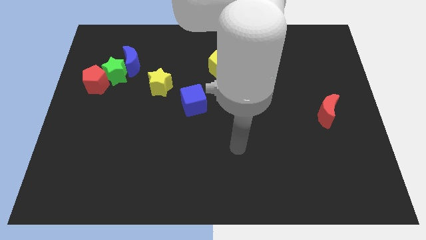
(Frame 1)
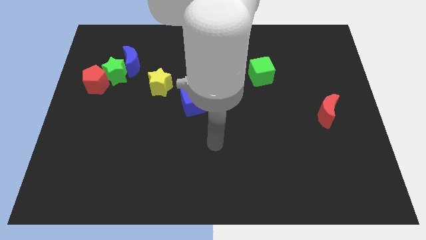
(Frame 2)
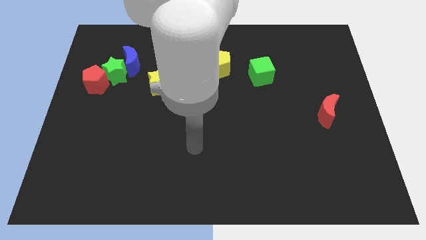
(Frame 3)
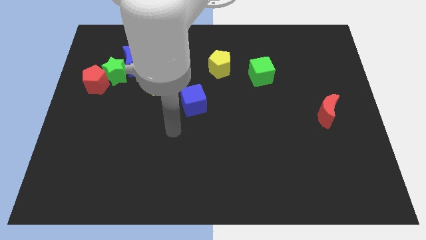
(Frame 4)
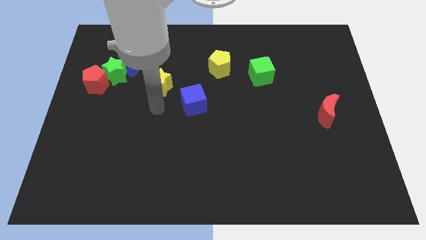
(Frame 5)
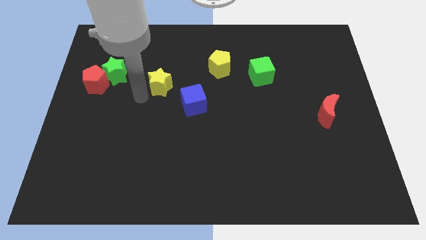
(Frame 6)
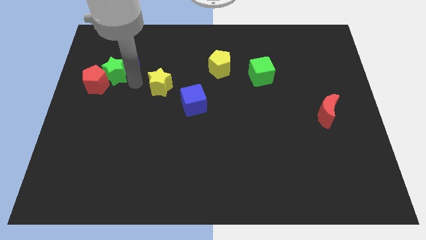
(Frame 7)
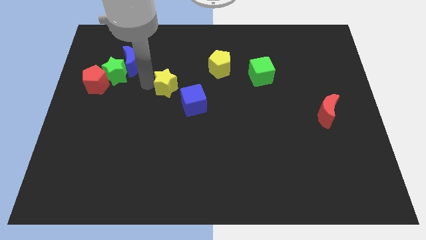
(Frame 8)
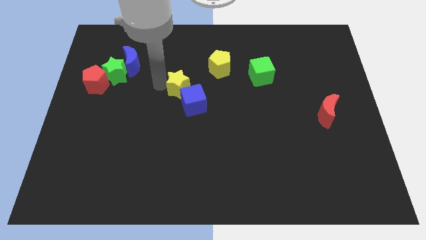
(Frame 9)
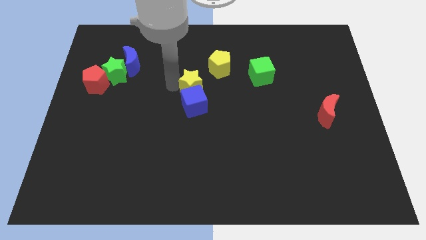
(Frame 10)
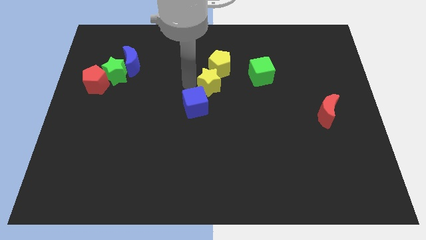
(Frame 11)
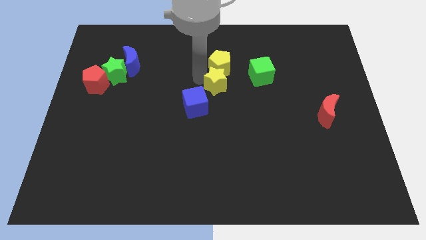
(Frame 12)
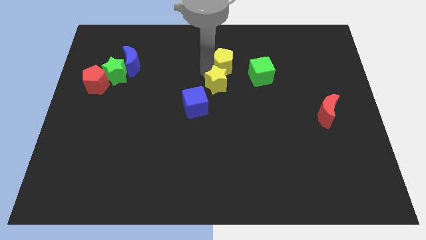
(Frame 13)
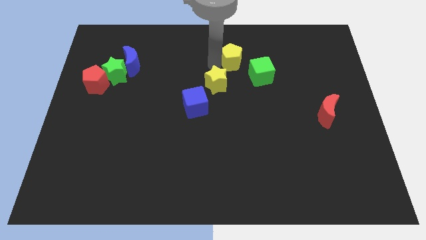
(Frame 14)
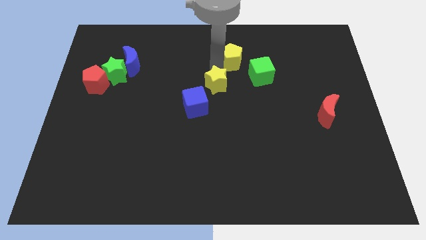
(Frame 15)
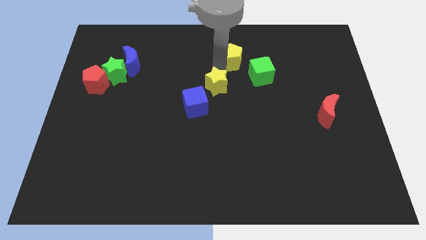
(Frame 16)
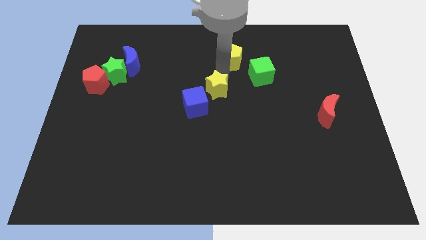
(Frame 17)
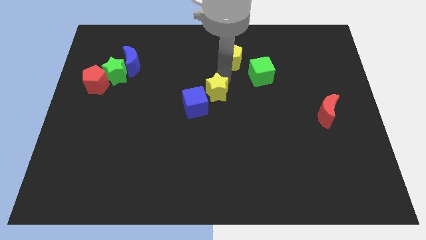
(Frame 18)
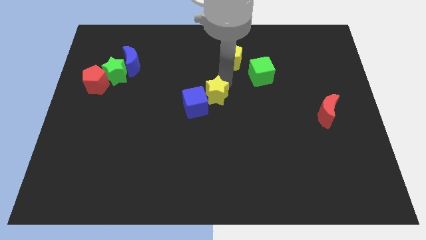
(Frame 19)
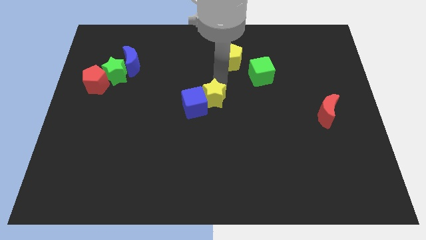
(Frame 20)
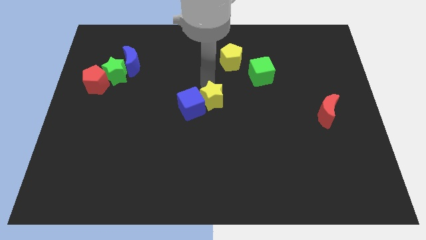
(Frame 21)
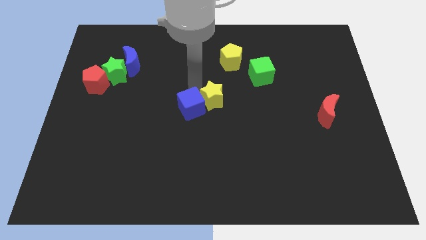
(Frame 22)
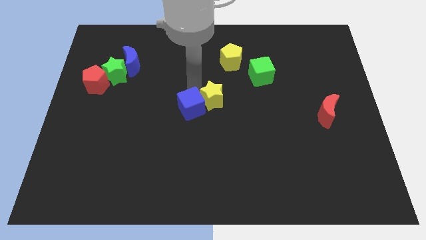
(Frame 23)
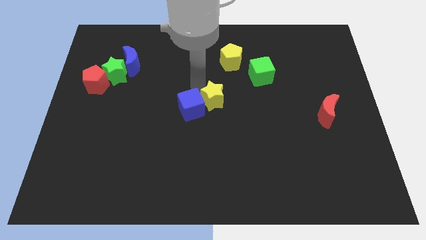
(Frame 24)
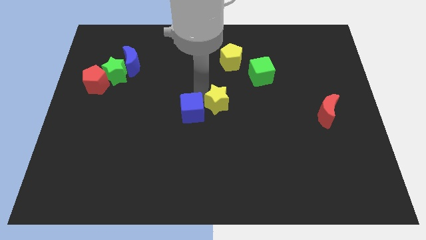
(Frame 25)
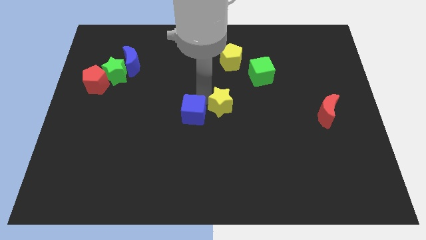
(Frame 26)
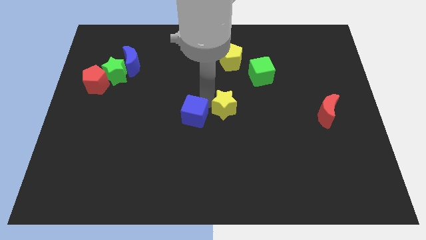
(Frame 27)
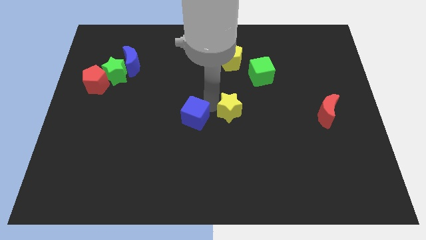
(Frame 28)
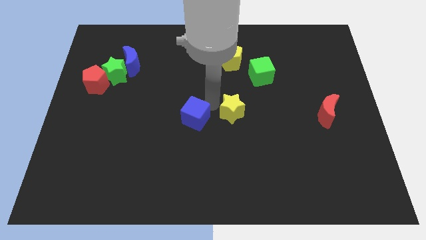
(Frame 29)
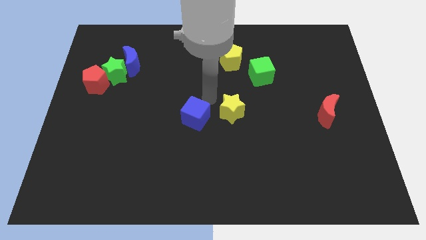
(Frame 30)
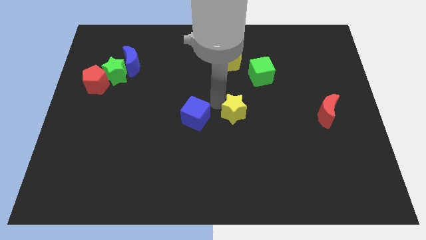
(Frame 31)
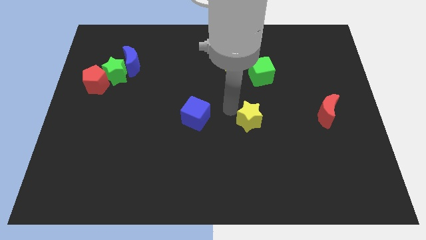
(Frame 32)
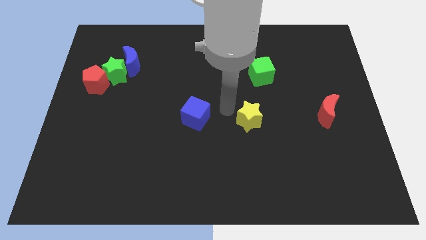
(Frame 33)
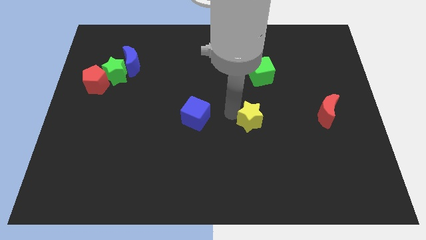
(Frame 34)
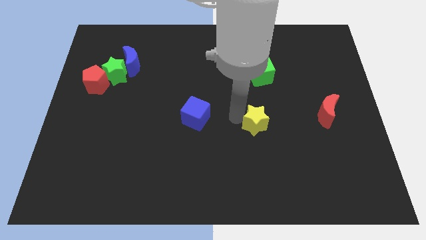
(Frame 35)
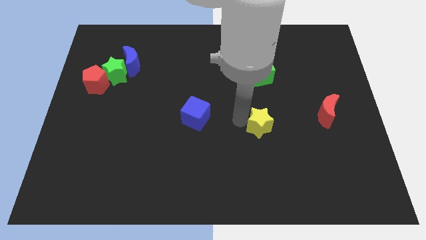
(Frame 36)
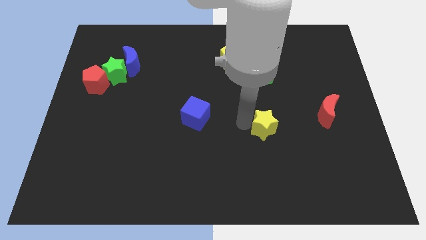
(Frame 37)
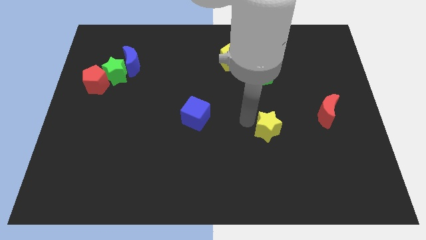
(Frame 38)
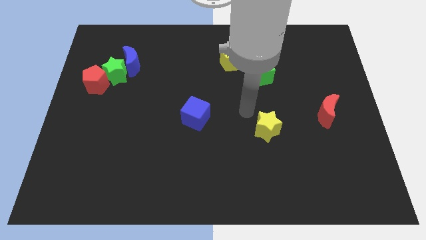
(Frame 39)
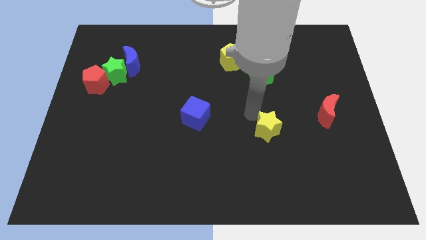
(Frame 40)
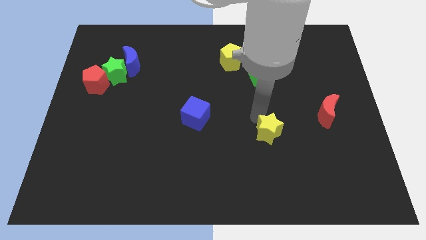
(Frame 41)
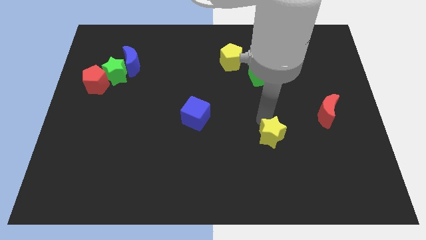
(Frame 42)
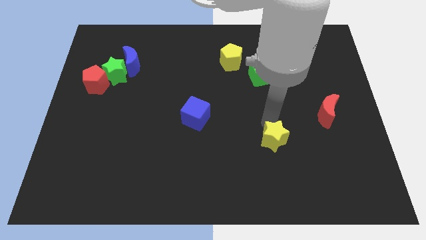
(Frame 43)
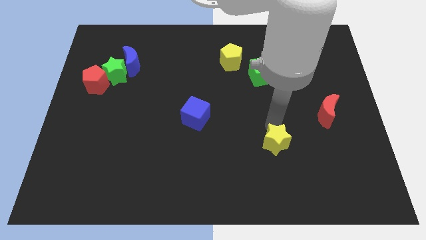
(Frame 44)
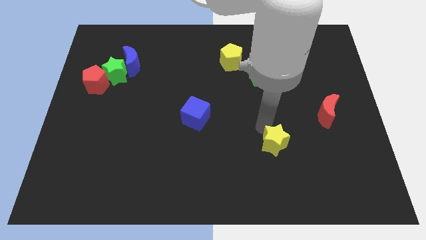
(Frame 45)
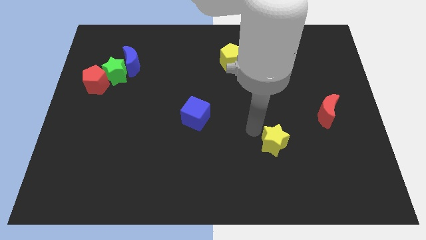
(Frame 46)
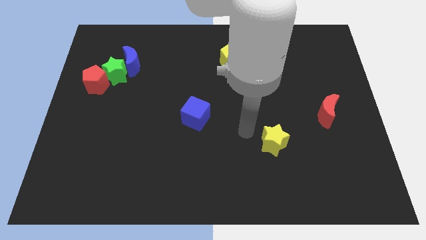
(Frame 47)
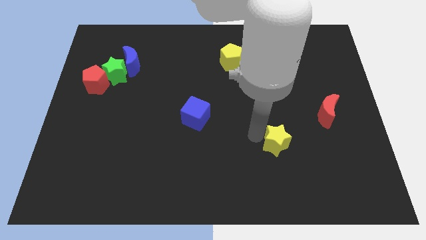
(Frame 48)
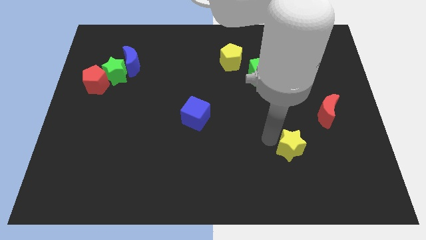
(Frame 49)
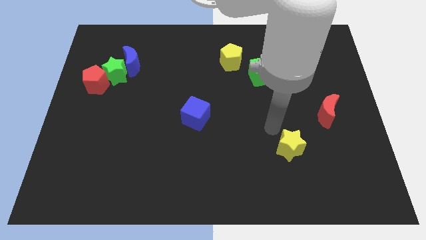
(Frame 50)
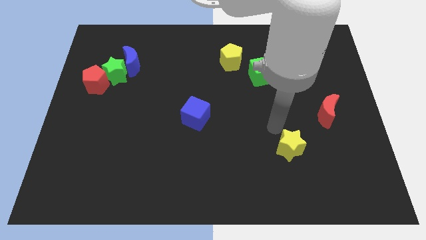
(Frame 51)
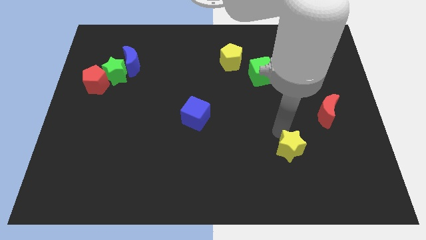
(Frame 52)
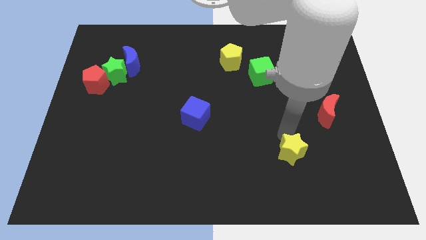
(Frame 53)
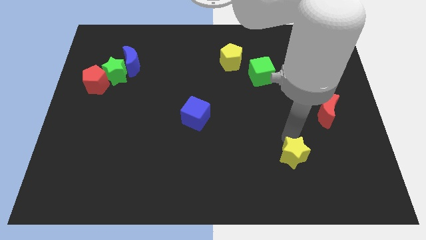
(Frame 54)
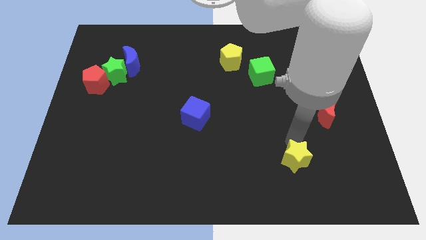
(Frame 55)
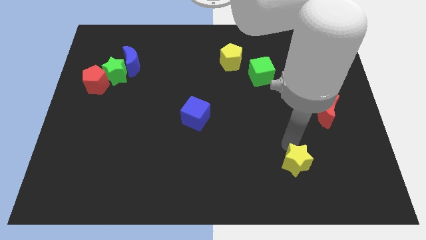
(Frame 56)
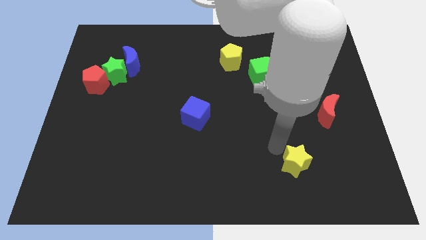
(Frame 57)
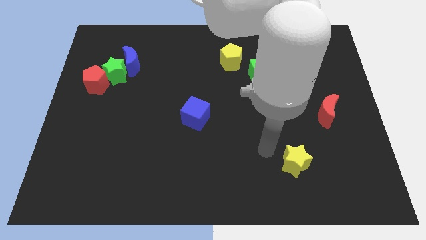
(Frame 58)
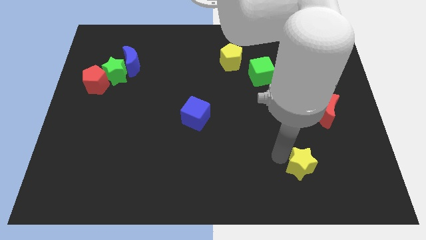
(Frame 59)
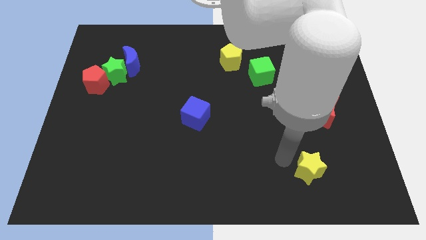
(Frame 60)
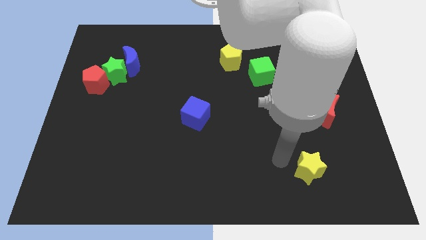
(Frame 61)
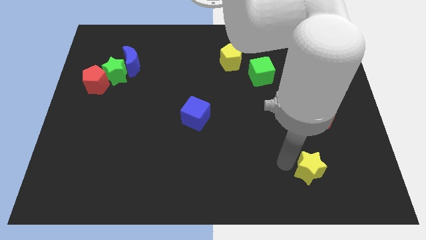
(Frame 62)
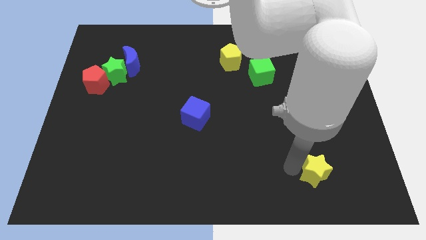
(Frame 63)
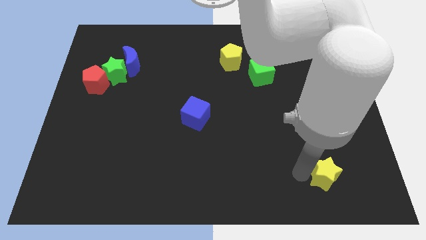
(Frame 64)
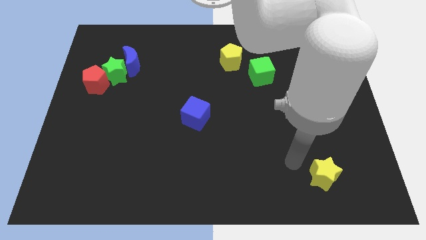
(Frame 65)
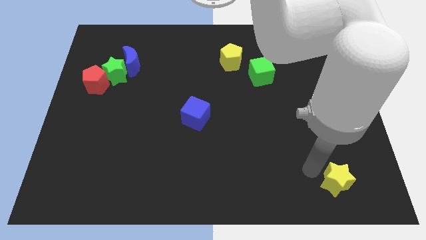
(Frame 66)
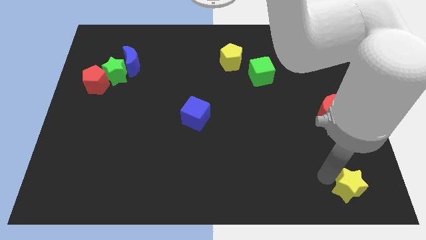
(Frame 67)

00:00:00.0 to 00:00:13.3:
put the yellow star to the bottom right
